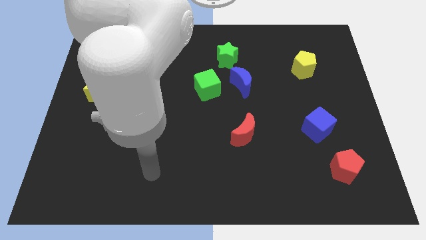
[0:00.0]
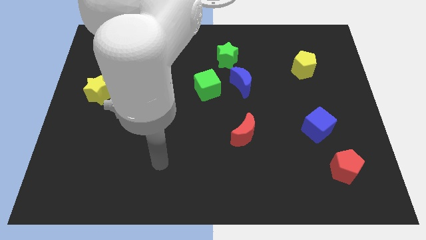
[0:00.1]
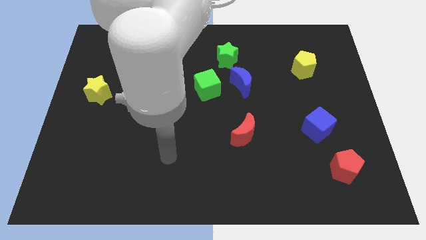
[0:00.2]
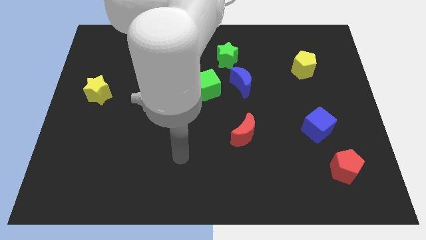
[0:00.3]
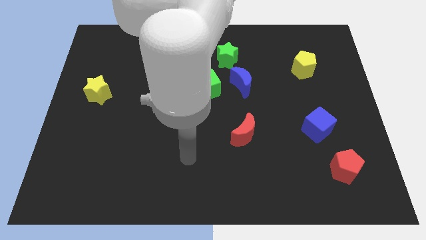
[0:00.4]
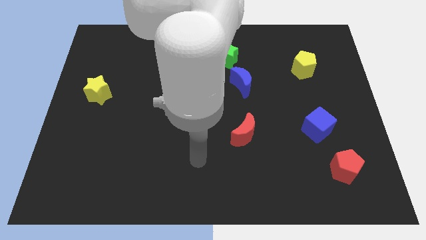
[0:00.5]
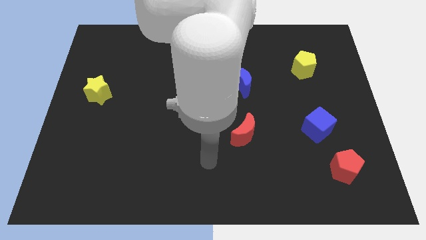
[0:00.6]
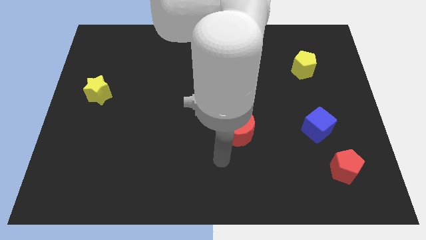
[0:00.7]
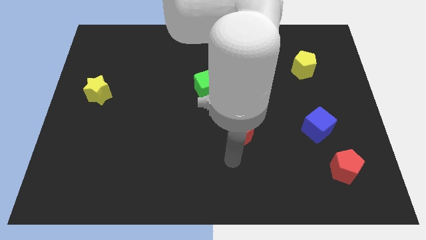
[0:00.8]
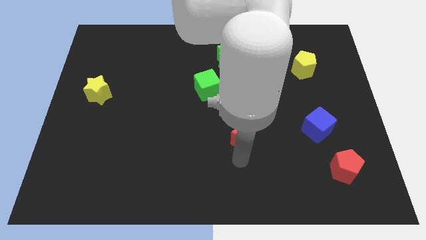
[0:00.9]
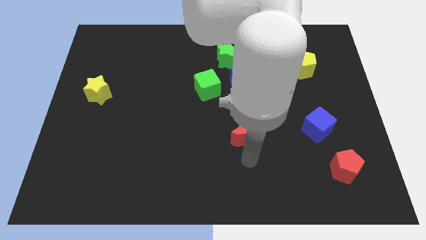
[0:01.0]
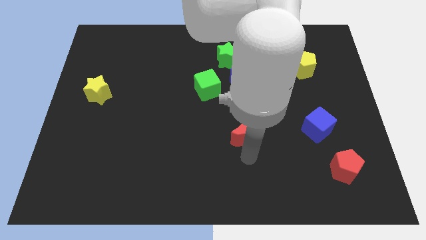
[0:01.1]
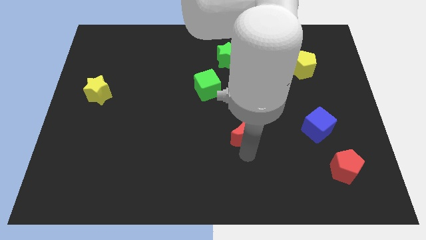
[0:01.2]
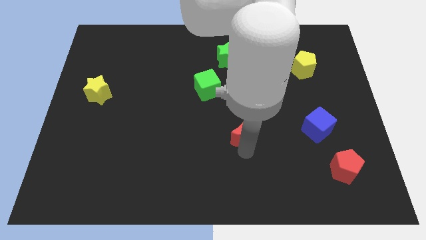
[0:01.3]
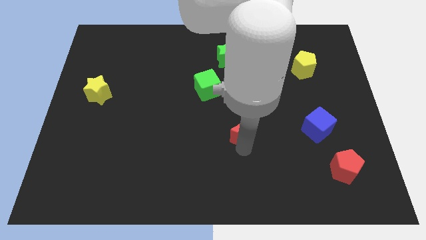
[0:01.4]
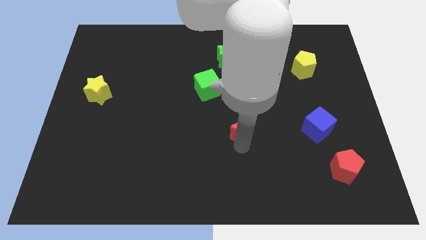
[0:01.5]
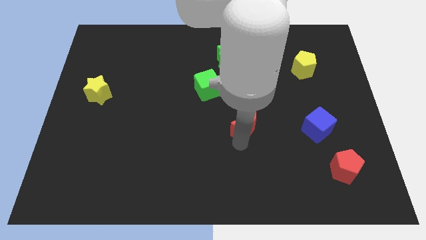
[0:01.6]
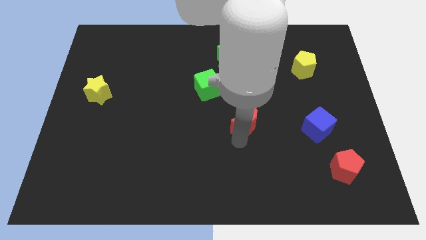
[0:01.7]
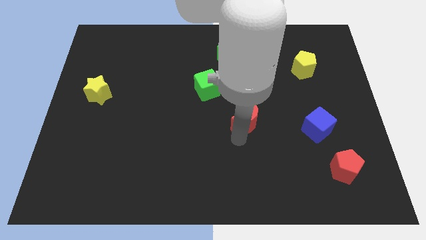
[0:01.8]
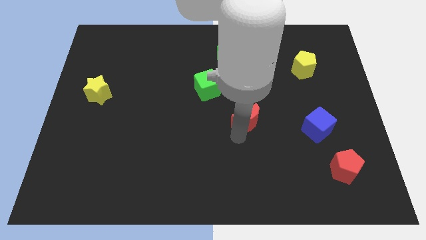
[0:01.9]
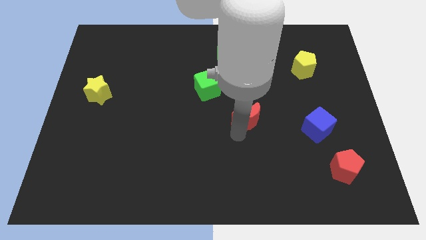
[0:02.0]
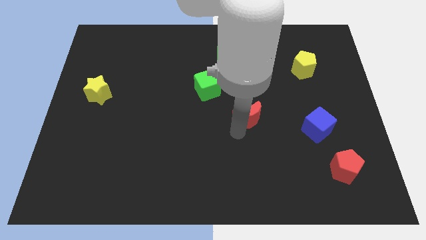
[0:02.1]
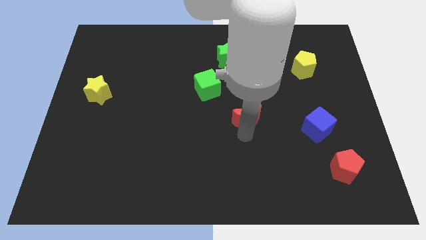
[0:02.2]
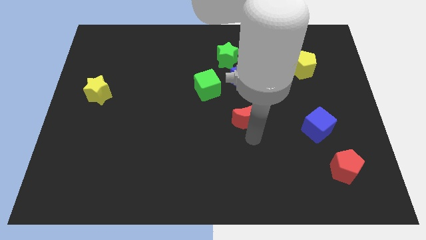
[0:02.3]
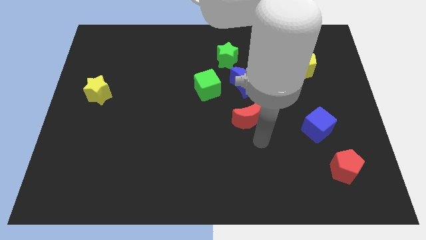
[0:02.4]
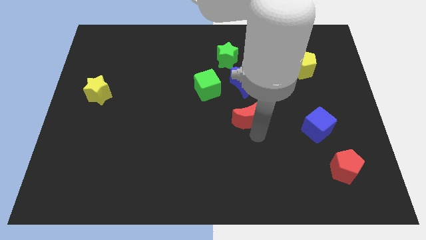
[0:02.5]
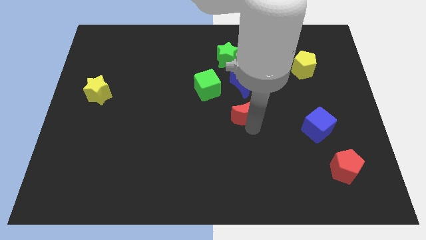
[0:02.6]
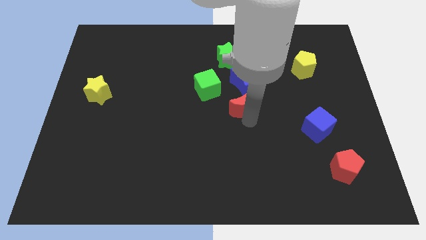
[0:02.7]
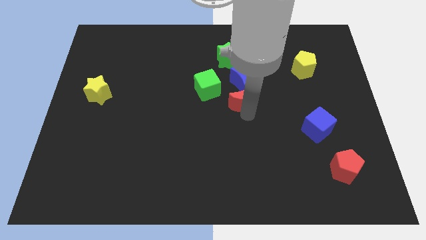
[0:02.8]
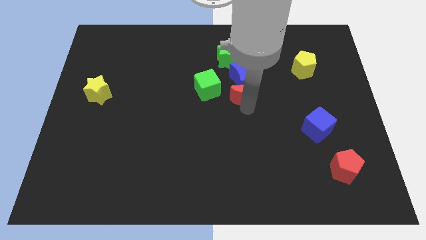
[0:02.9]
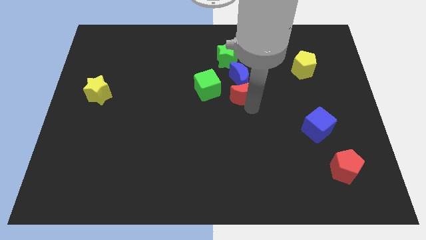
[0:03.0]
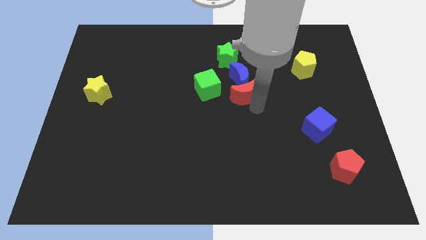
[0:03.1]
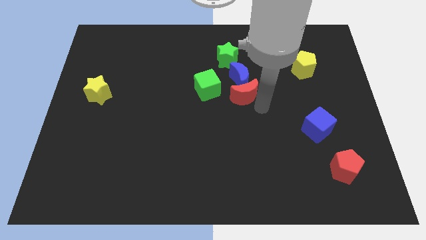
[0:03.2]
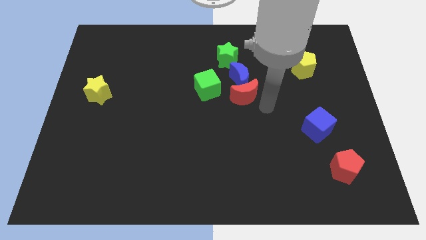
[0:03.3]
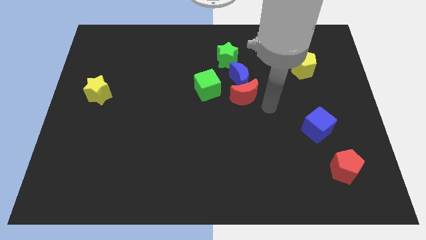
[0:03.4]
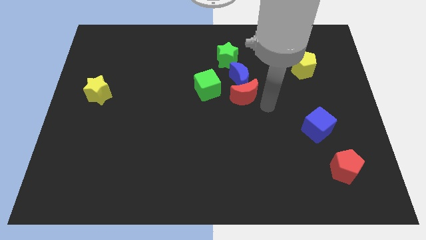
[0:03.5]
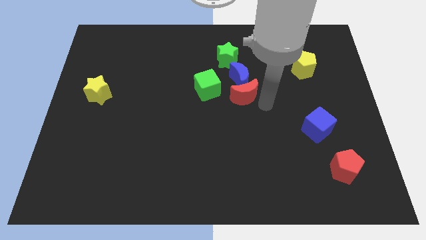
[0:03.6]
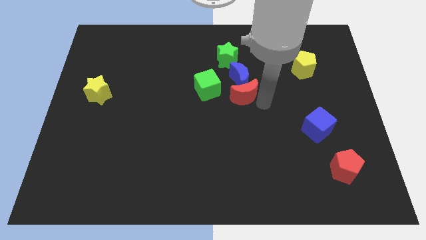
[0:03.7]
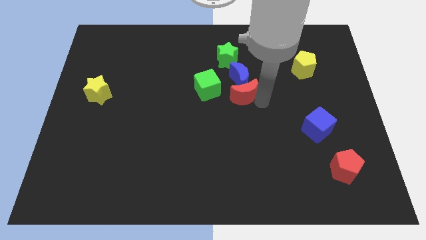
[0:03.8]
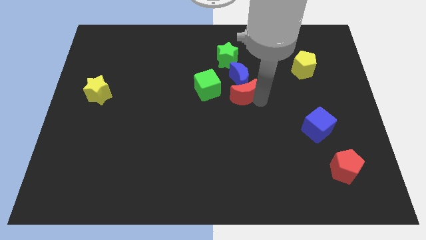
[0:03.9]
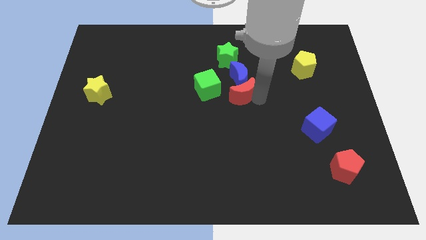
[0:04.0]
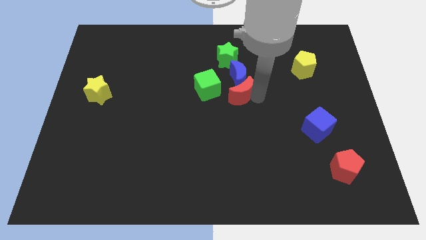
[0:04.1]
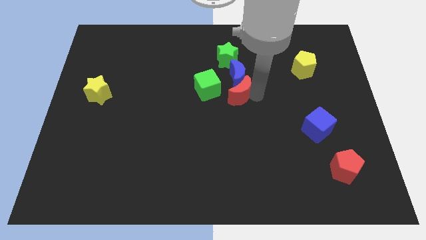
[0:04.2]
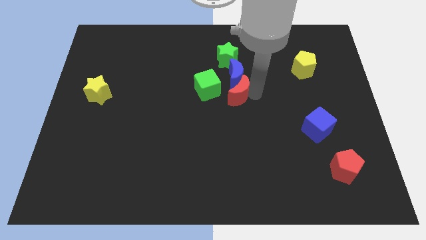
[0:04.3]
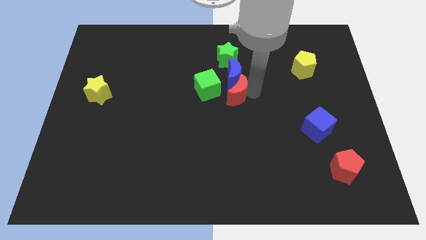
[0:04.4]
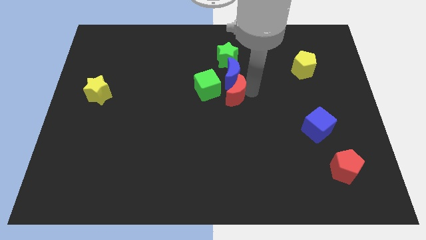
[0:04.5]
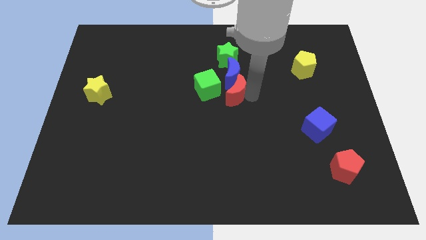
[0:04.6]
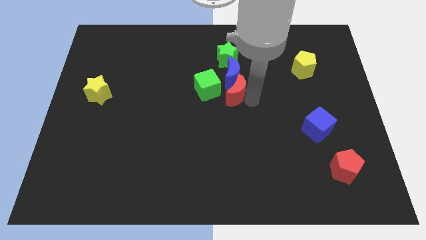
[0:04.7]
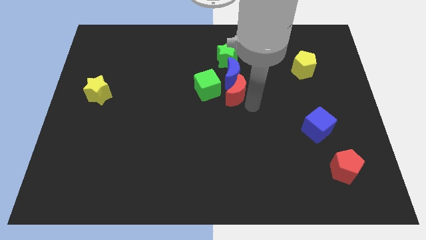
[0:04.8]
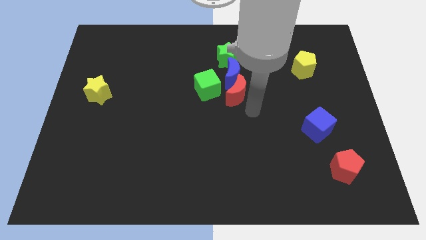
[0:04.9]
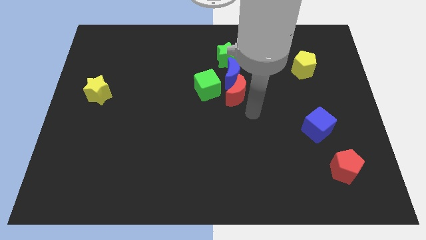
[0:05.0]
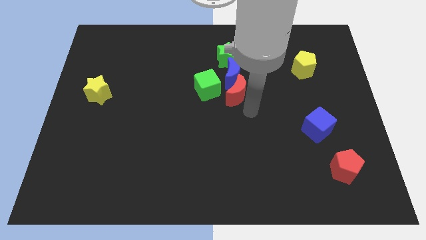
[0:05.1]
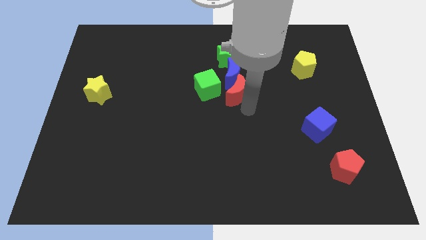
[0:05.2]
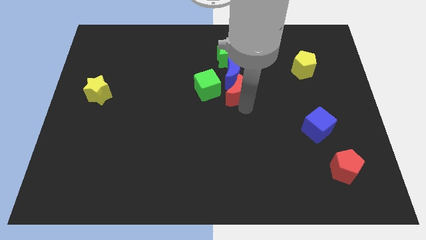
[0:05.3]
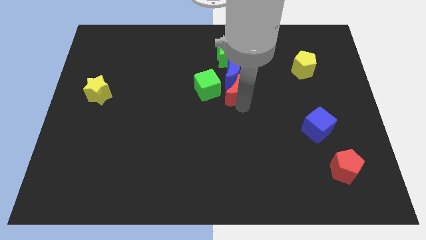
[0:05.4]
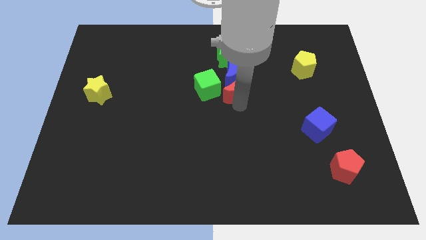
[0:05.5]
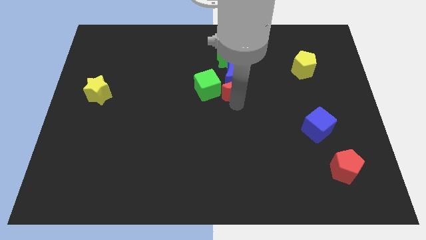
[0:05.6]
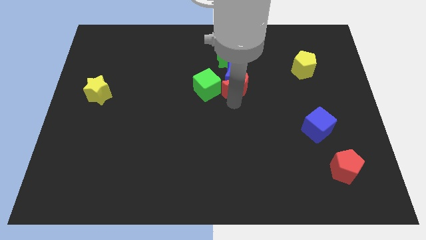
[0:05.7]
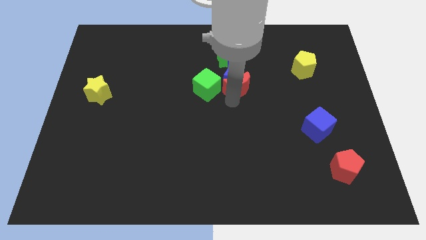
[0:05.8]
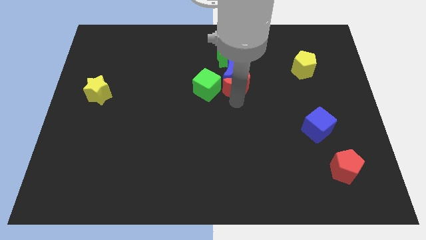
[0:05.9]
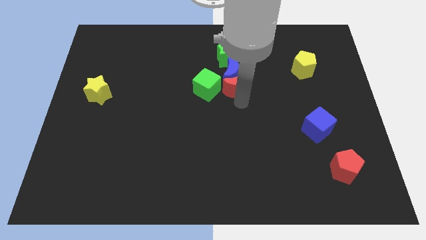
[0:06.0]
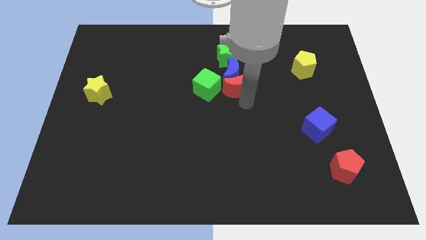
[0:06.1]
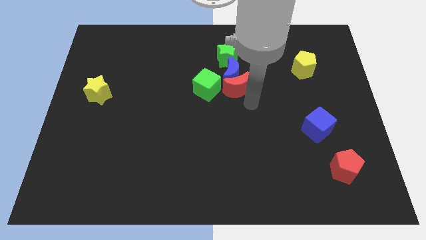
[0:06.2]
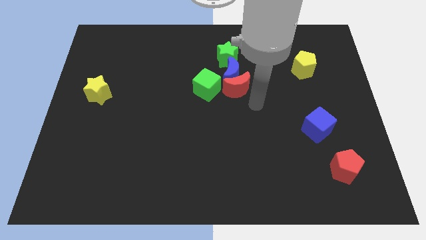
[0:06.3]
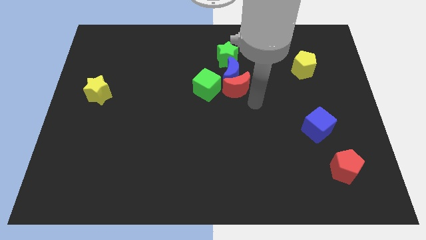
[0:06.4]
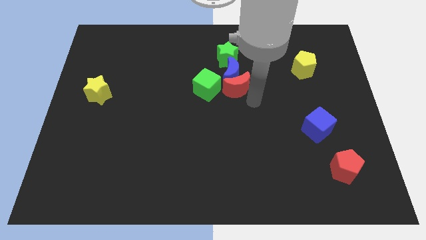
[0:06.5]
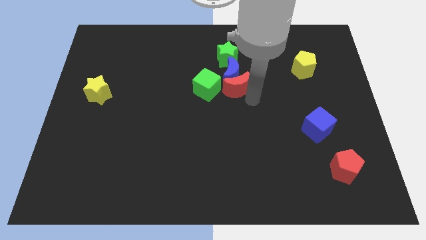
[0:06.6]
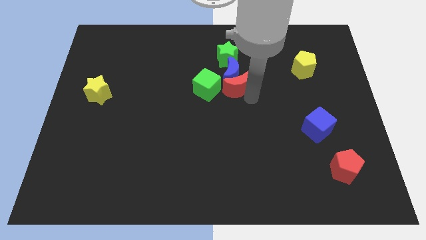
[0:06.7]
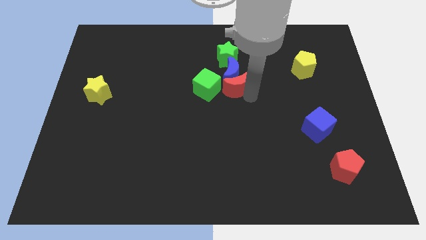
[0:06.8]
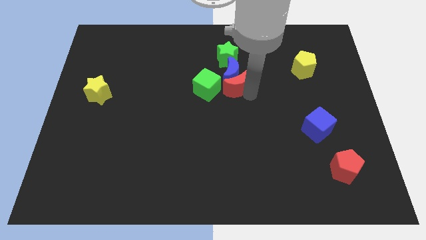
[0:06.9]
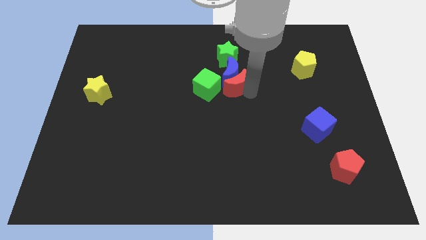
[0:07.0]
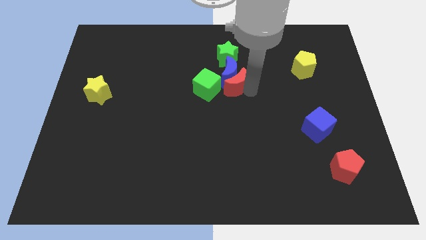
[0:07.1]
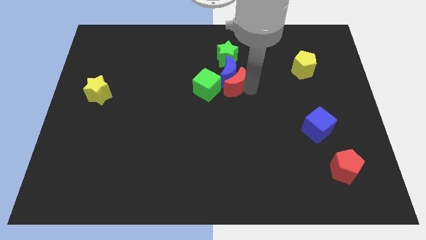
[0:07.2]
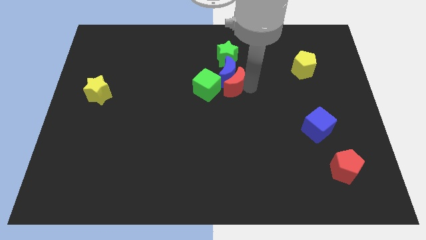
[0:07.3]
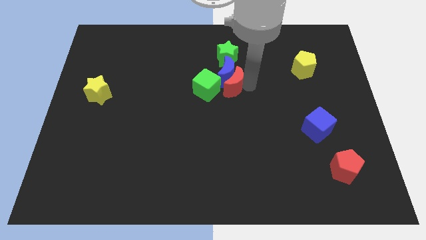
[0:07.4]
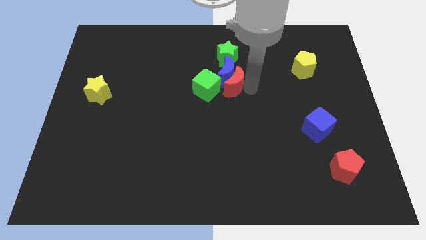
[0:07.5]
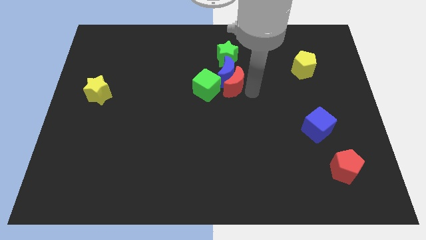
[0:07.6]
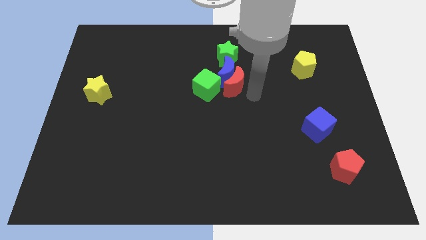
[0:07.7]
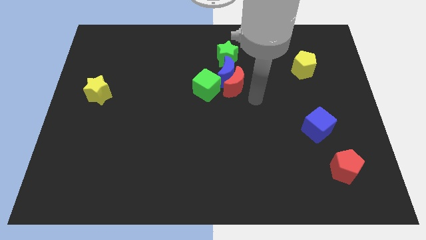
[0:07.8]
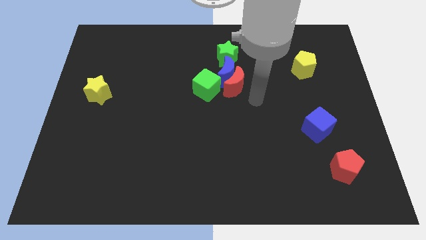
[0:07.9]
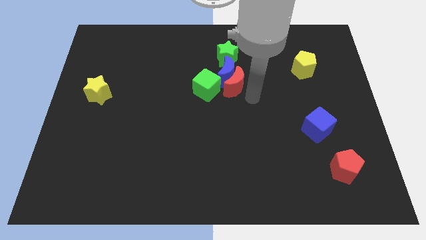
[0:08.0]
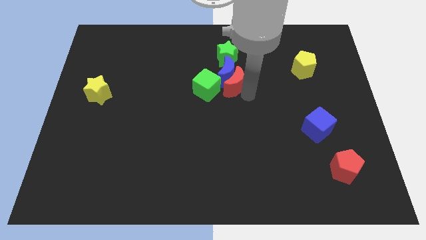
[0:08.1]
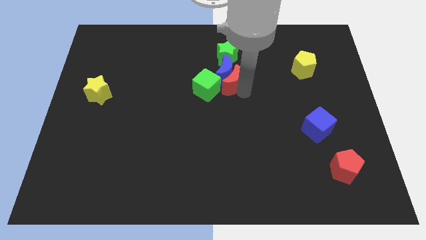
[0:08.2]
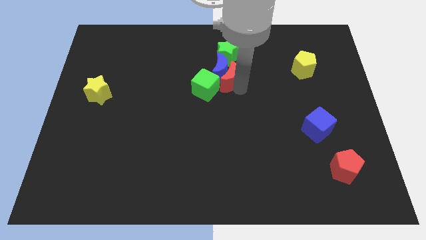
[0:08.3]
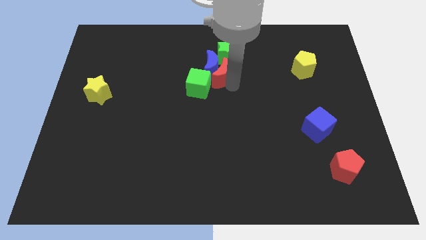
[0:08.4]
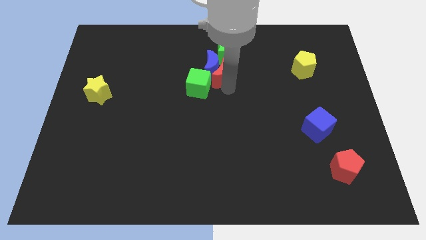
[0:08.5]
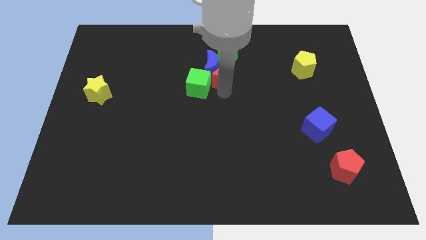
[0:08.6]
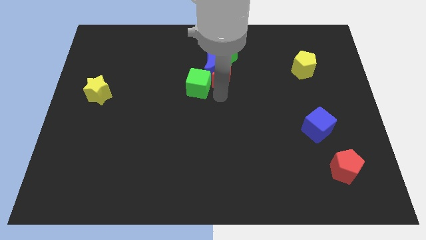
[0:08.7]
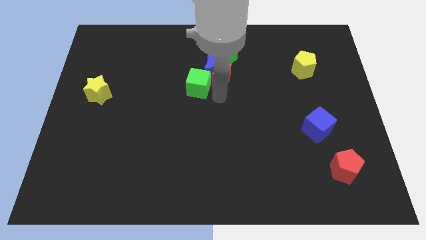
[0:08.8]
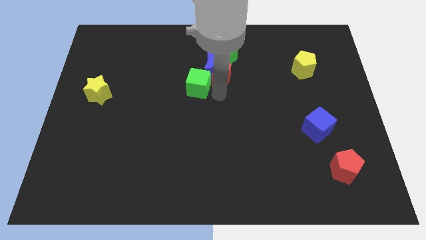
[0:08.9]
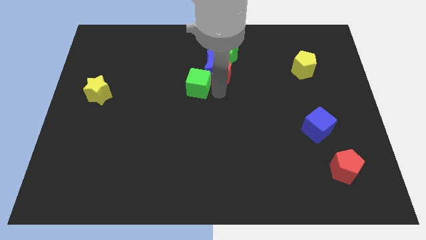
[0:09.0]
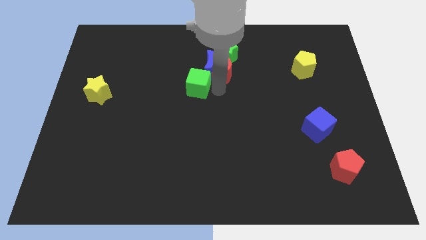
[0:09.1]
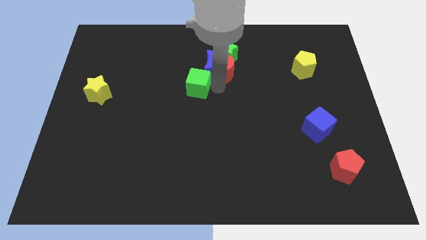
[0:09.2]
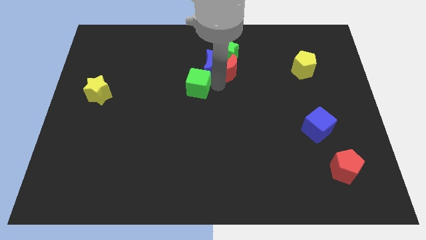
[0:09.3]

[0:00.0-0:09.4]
slide the red moon to the green star
